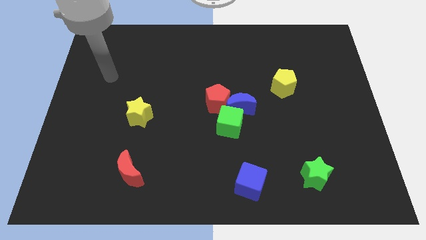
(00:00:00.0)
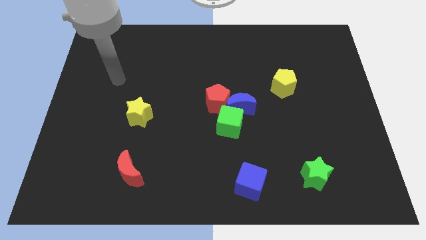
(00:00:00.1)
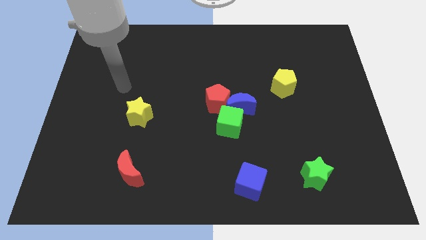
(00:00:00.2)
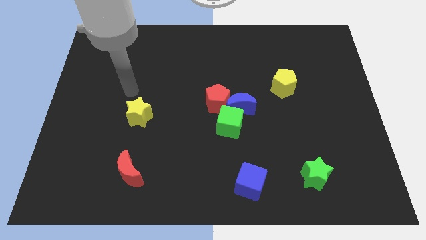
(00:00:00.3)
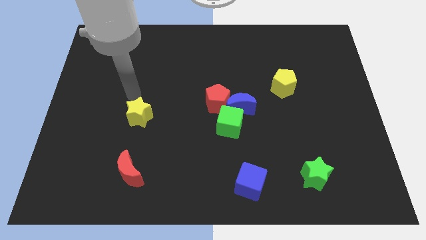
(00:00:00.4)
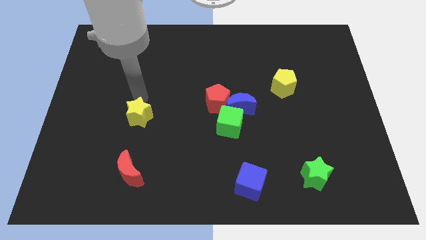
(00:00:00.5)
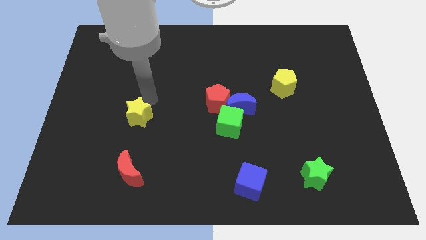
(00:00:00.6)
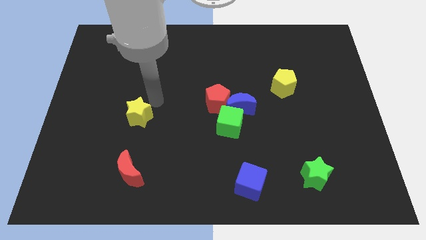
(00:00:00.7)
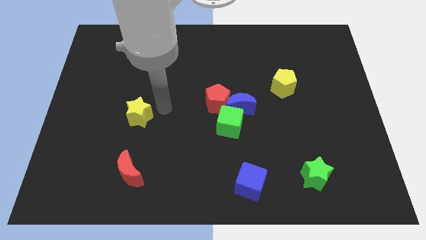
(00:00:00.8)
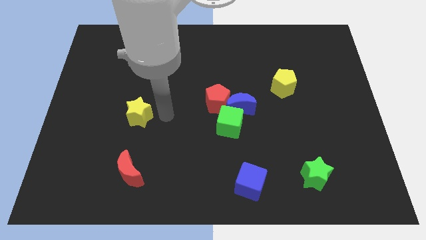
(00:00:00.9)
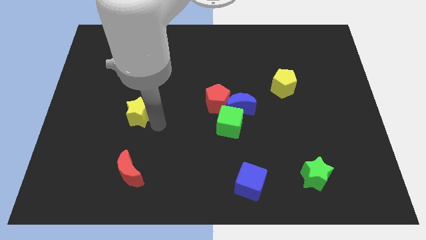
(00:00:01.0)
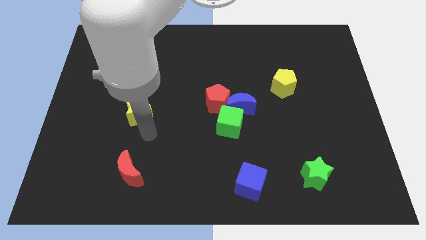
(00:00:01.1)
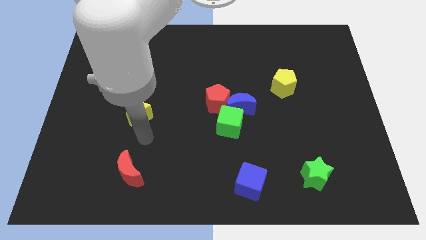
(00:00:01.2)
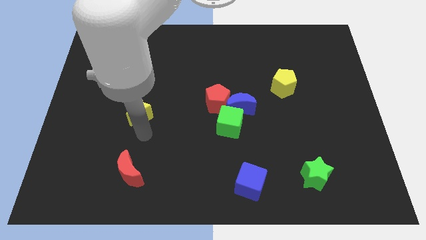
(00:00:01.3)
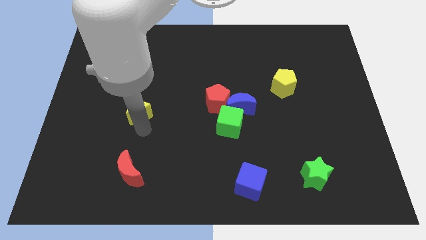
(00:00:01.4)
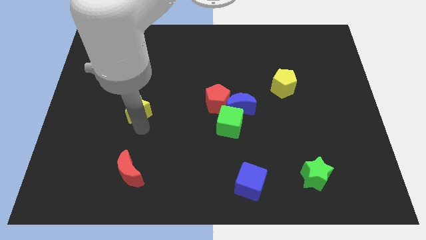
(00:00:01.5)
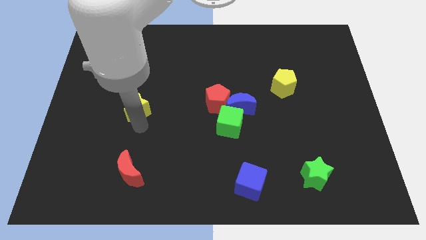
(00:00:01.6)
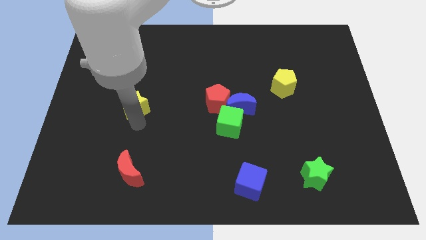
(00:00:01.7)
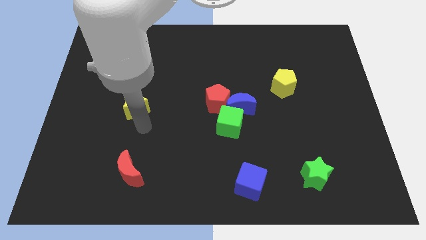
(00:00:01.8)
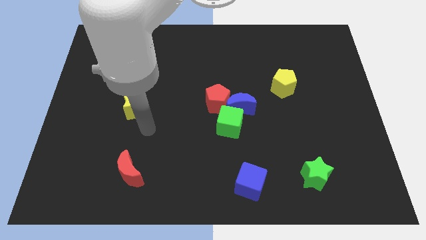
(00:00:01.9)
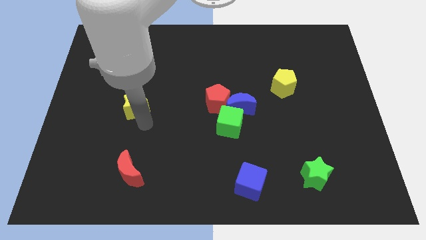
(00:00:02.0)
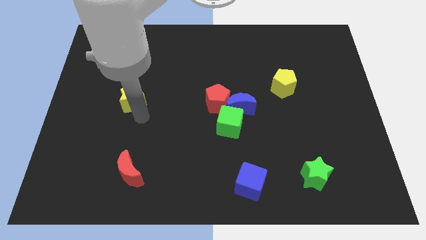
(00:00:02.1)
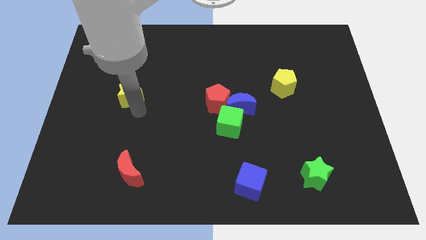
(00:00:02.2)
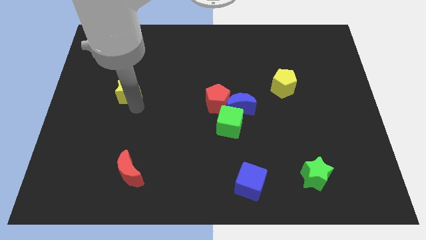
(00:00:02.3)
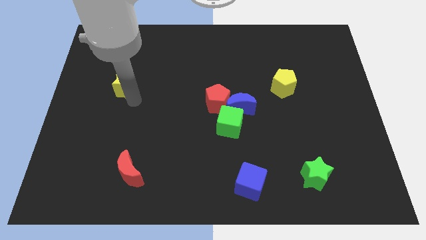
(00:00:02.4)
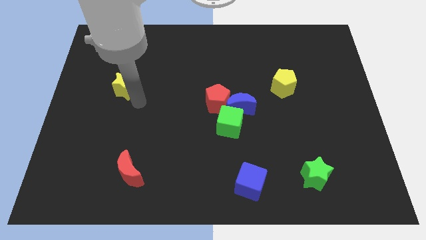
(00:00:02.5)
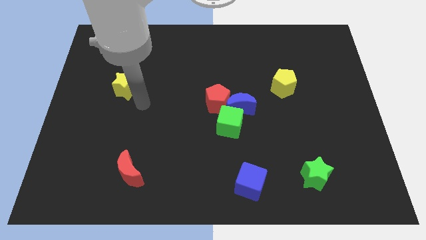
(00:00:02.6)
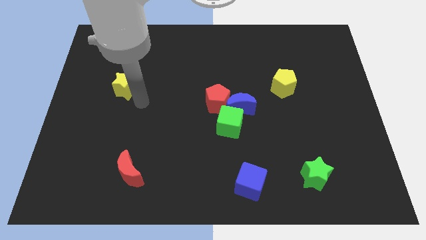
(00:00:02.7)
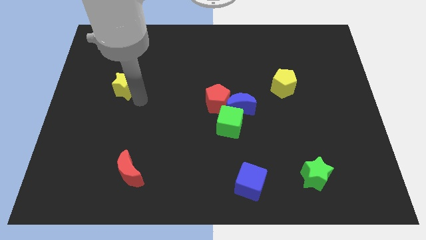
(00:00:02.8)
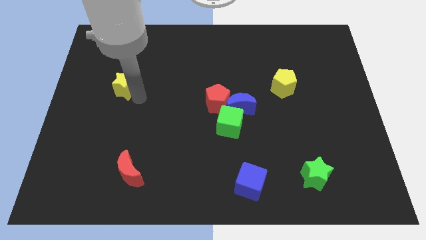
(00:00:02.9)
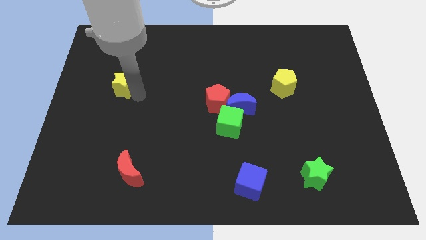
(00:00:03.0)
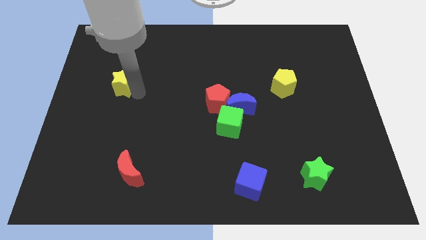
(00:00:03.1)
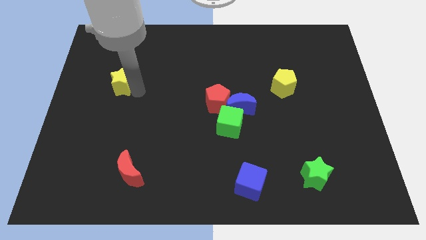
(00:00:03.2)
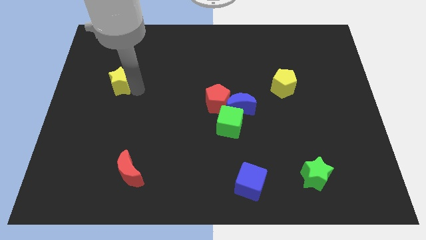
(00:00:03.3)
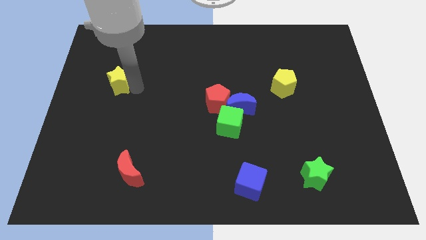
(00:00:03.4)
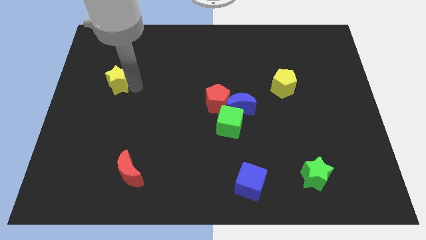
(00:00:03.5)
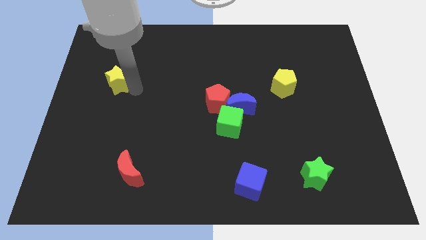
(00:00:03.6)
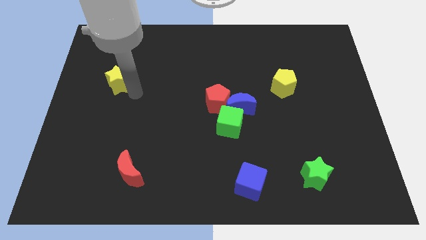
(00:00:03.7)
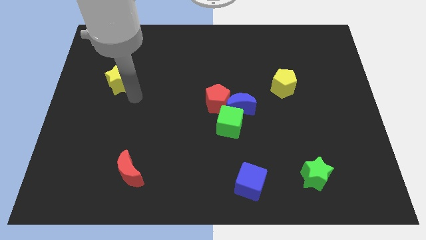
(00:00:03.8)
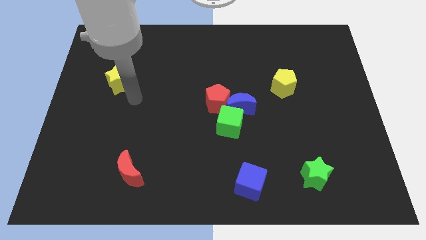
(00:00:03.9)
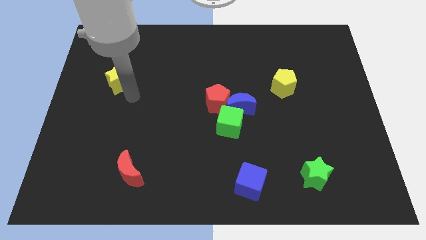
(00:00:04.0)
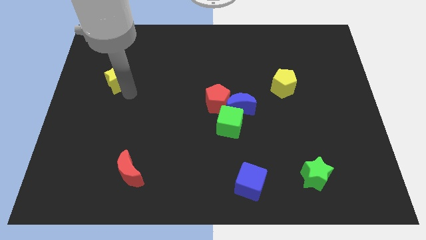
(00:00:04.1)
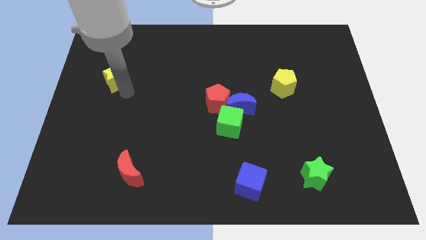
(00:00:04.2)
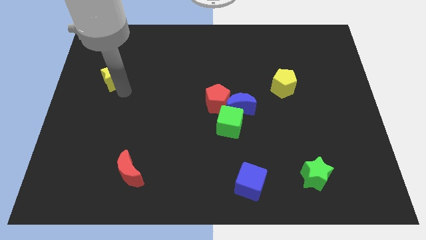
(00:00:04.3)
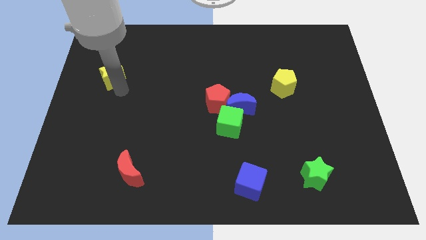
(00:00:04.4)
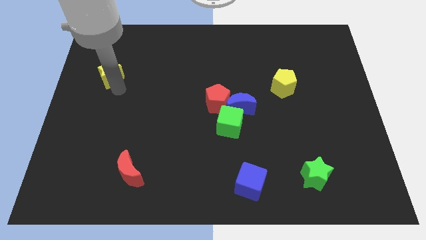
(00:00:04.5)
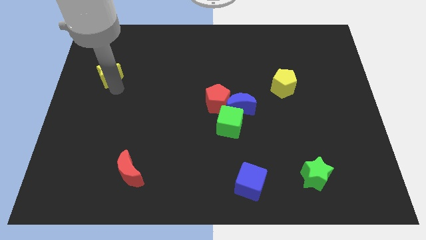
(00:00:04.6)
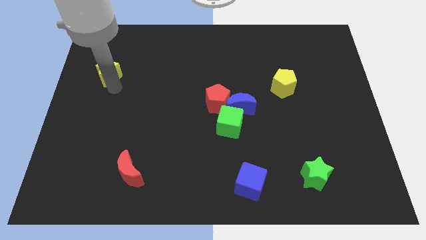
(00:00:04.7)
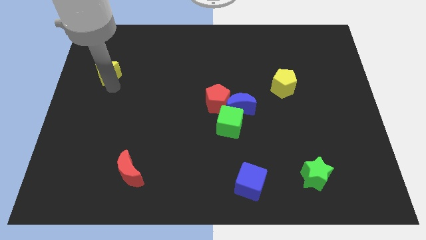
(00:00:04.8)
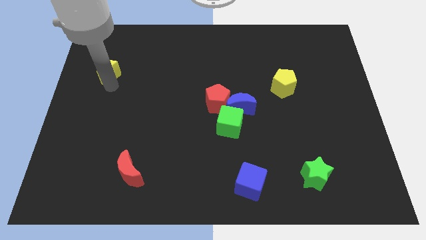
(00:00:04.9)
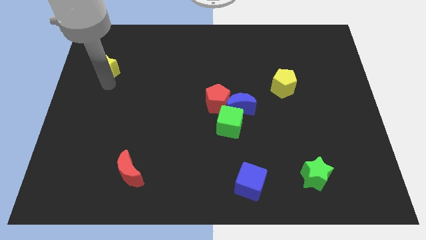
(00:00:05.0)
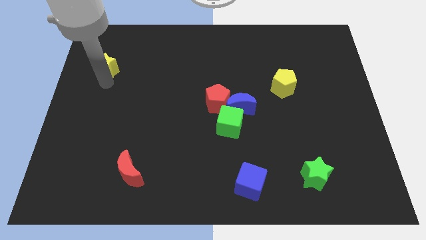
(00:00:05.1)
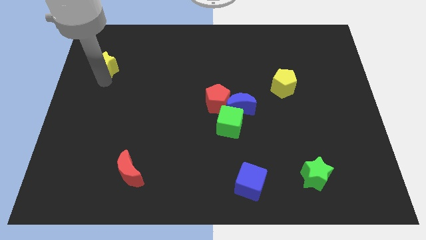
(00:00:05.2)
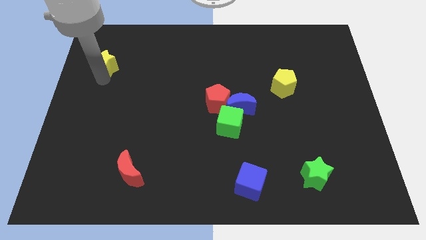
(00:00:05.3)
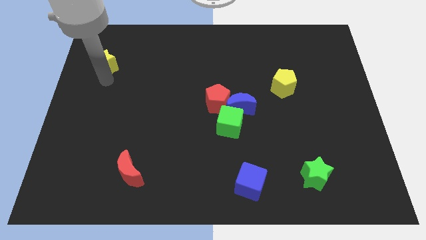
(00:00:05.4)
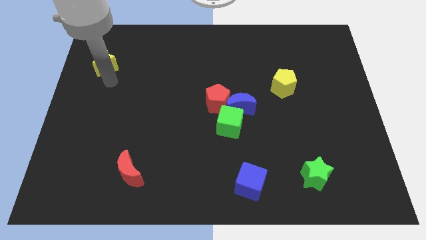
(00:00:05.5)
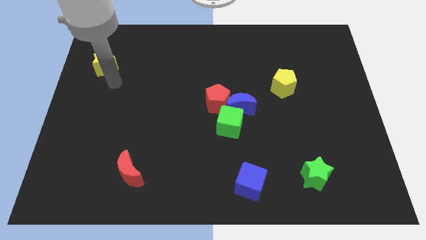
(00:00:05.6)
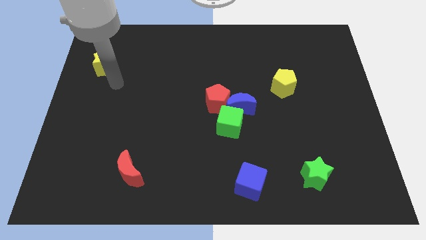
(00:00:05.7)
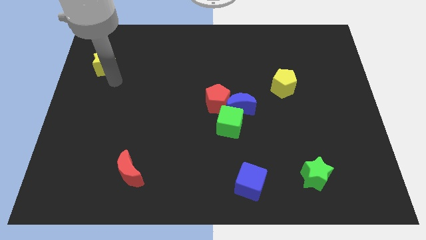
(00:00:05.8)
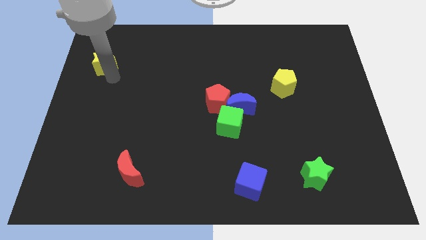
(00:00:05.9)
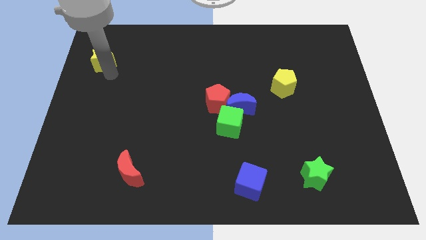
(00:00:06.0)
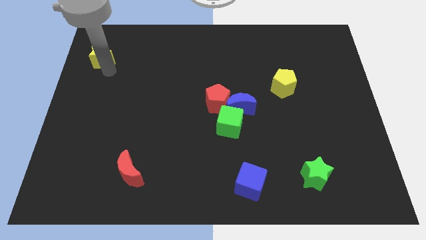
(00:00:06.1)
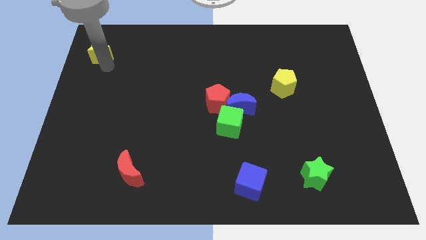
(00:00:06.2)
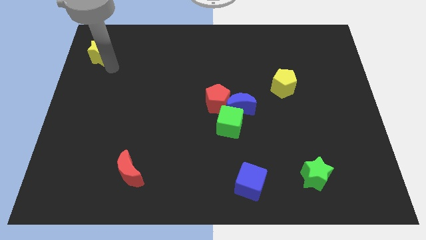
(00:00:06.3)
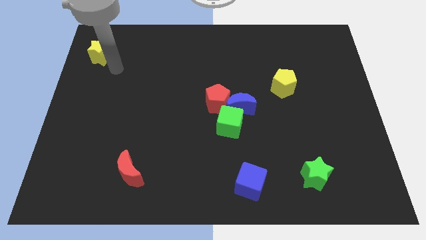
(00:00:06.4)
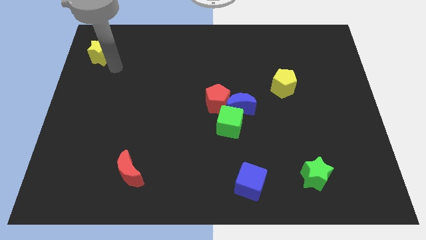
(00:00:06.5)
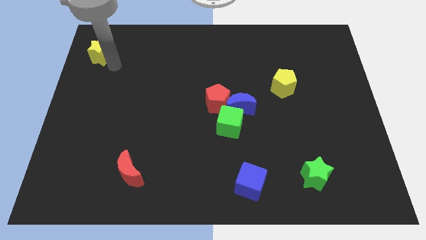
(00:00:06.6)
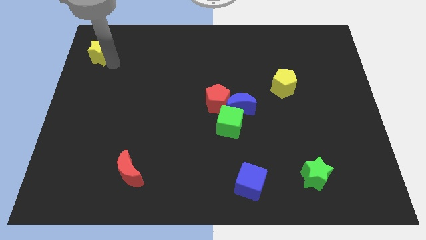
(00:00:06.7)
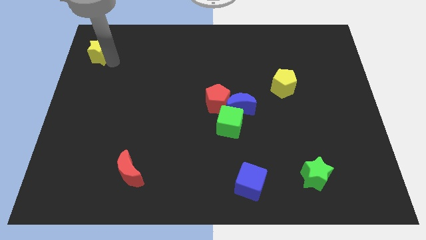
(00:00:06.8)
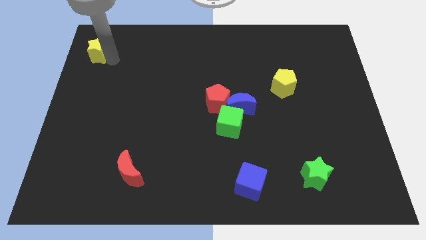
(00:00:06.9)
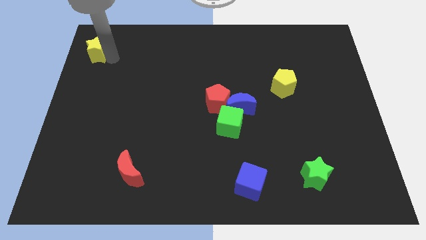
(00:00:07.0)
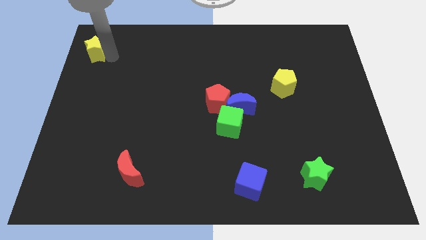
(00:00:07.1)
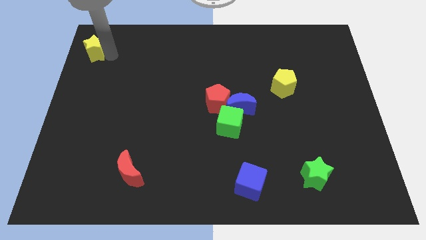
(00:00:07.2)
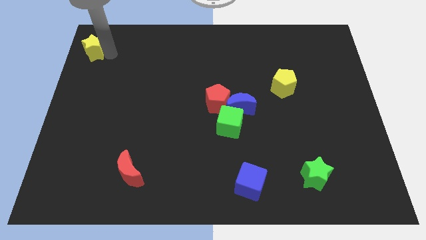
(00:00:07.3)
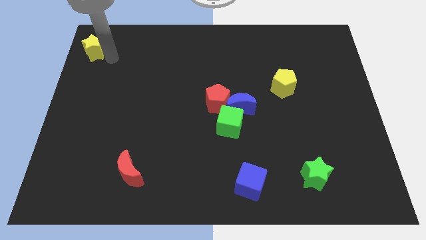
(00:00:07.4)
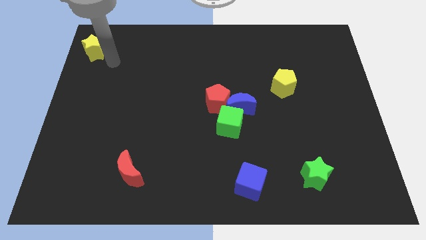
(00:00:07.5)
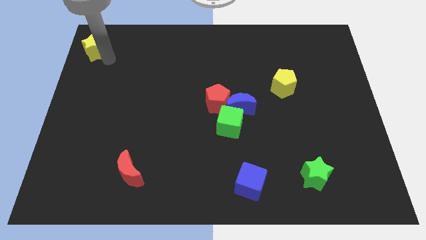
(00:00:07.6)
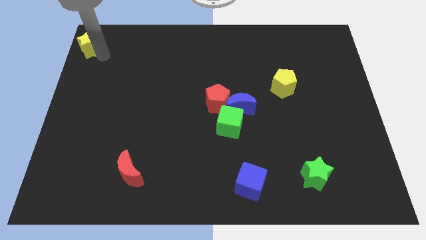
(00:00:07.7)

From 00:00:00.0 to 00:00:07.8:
put the yellow star to the top left
